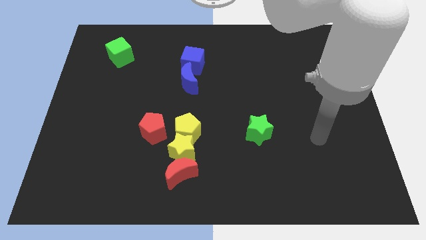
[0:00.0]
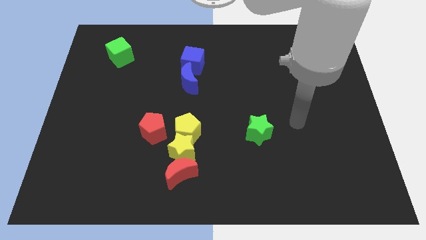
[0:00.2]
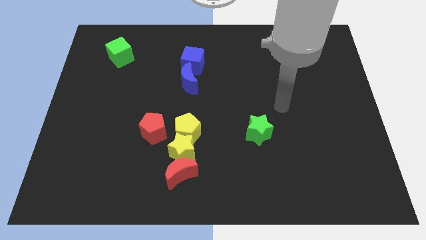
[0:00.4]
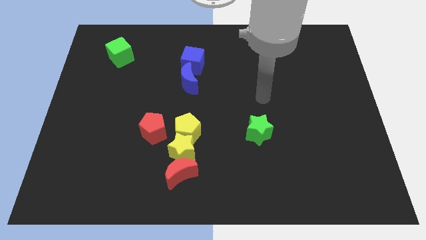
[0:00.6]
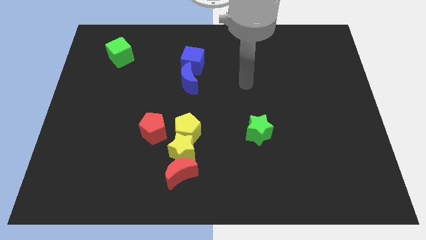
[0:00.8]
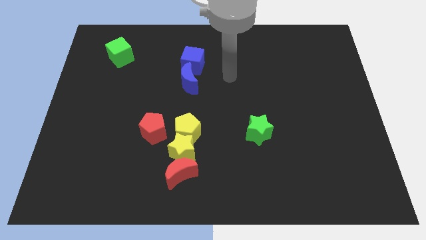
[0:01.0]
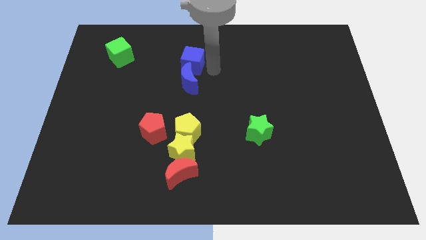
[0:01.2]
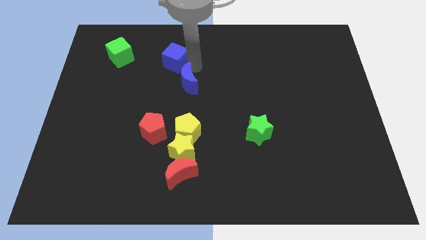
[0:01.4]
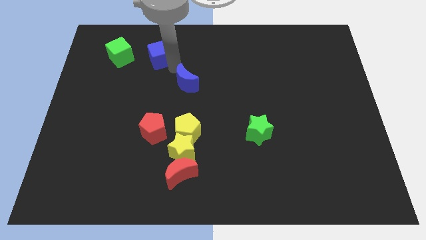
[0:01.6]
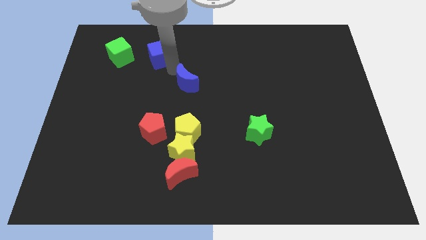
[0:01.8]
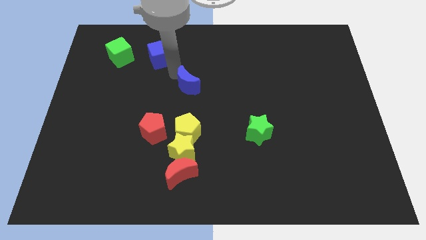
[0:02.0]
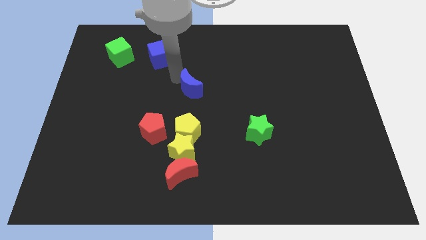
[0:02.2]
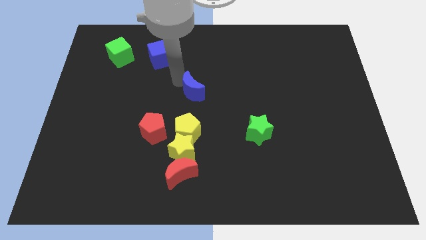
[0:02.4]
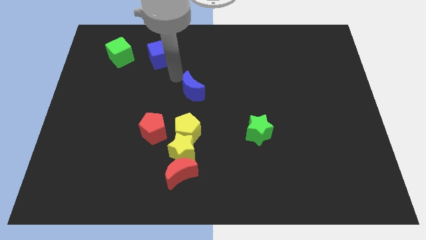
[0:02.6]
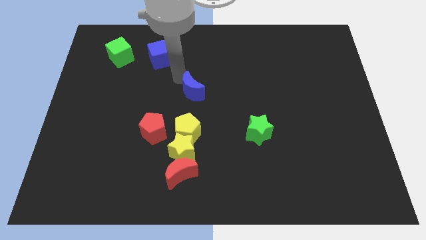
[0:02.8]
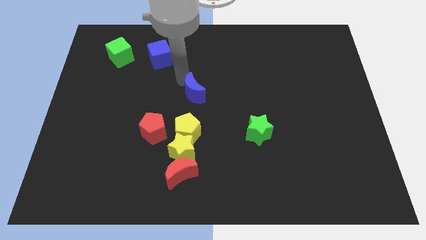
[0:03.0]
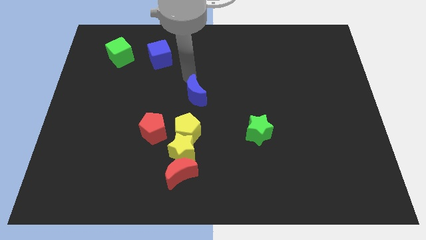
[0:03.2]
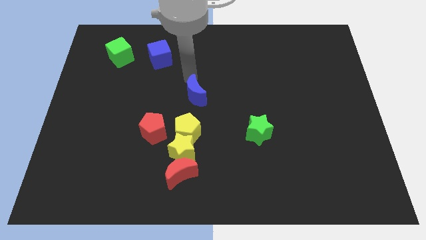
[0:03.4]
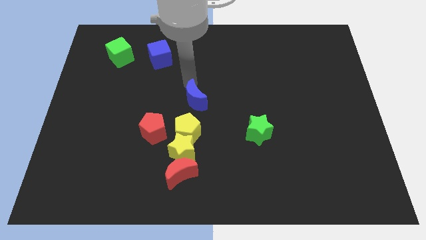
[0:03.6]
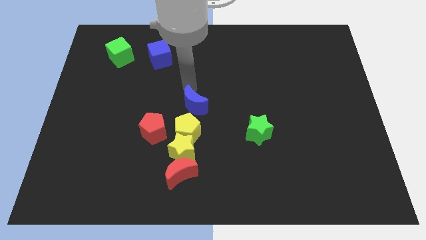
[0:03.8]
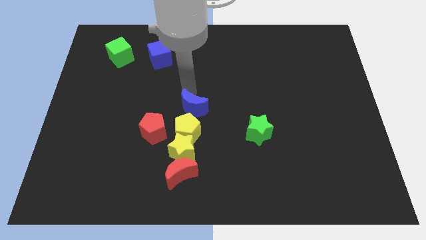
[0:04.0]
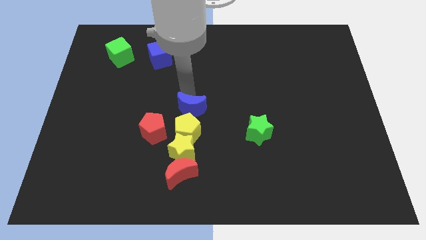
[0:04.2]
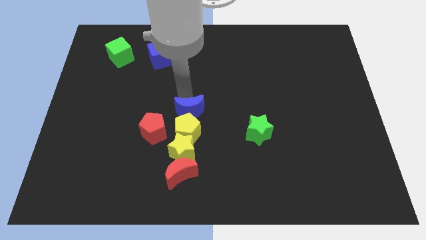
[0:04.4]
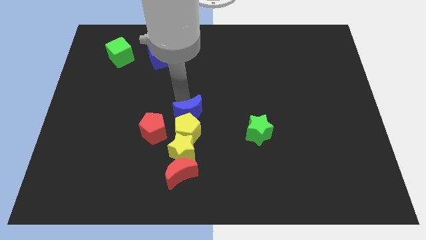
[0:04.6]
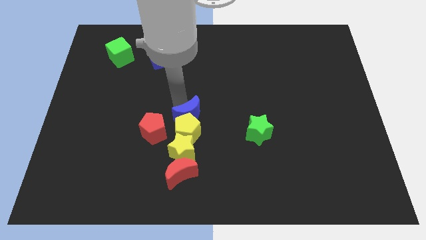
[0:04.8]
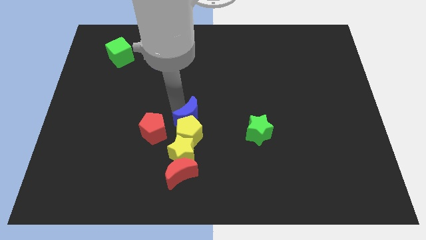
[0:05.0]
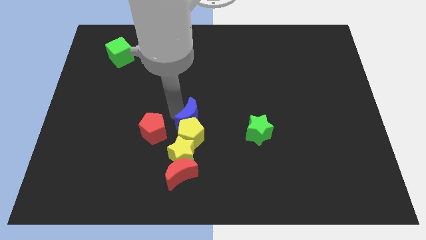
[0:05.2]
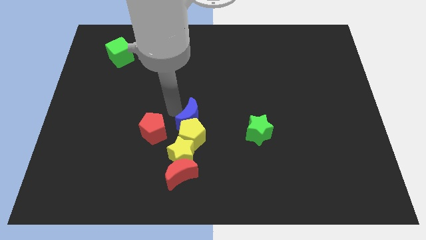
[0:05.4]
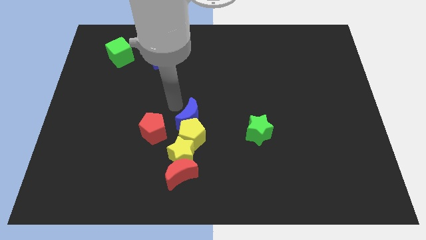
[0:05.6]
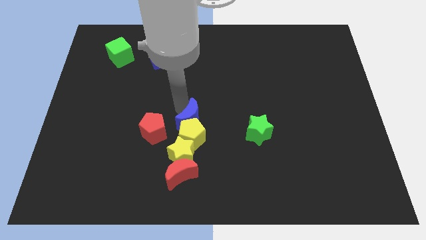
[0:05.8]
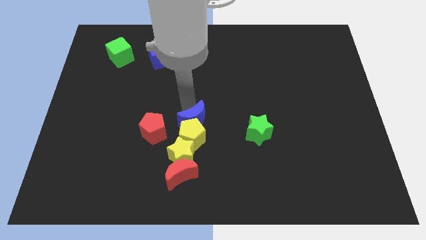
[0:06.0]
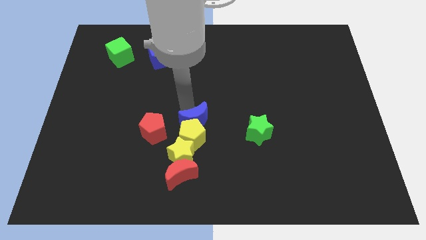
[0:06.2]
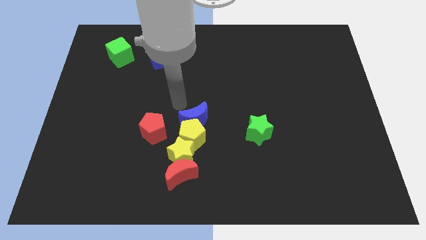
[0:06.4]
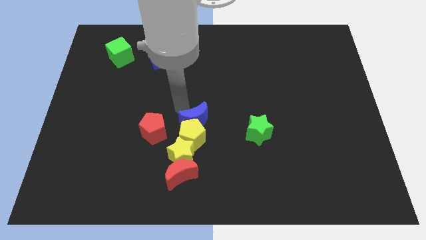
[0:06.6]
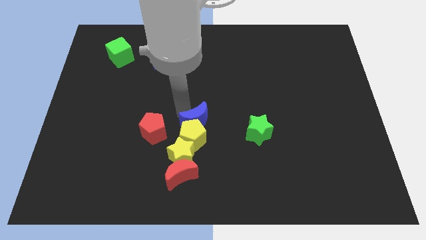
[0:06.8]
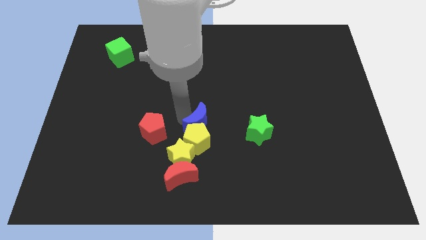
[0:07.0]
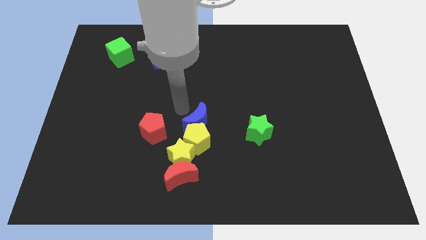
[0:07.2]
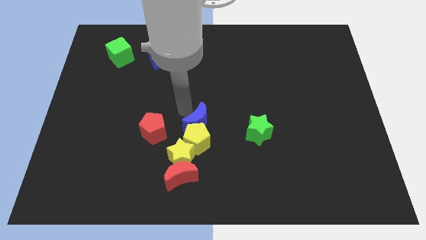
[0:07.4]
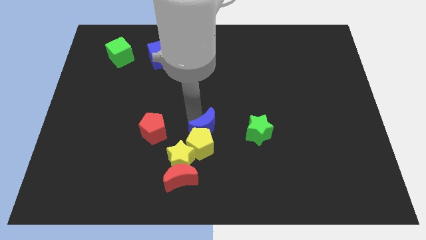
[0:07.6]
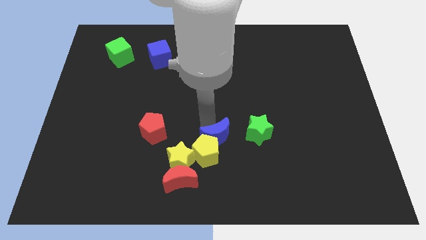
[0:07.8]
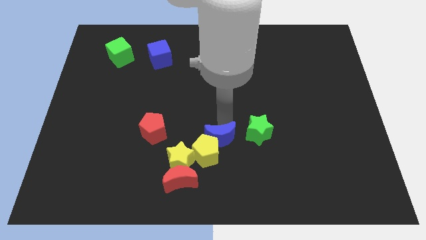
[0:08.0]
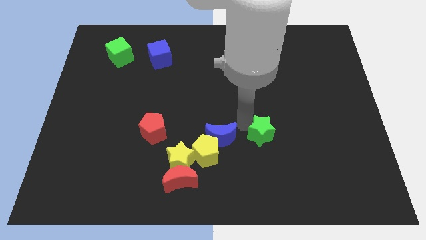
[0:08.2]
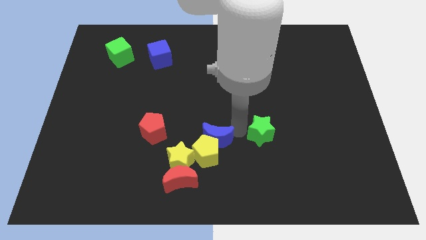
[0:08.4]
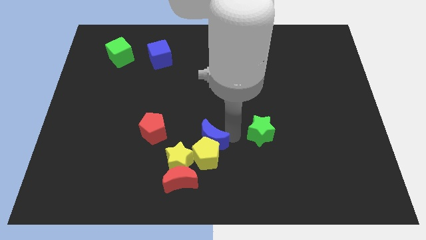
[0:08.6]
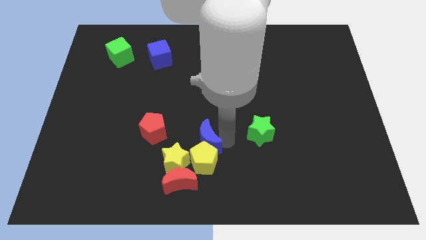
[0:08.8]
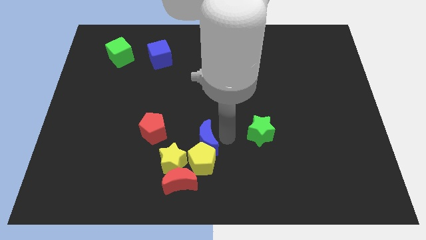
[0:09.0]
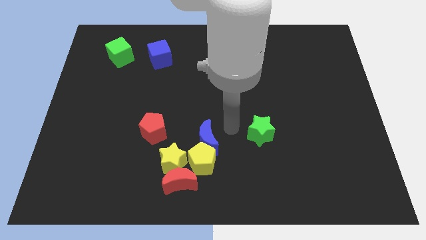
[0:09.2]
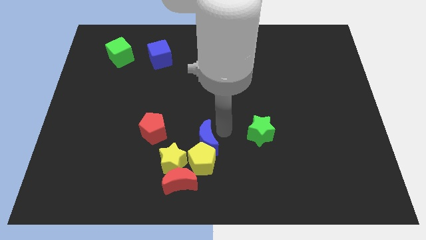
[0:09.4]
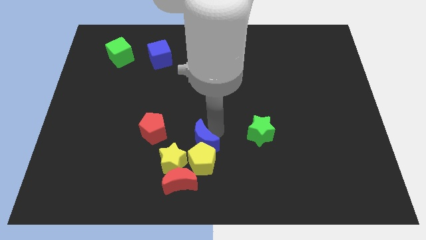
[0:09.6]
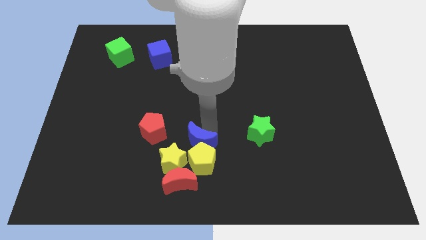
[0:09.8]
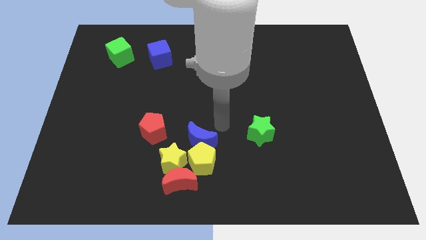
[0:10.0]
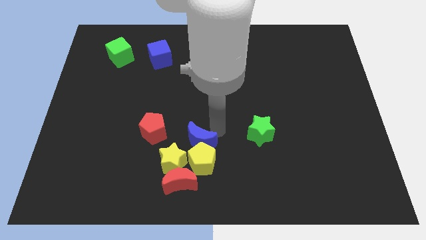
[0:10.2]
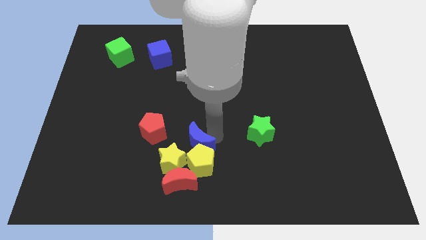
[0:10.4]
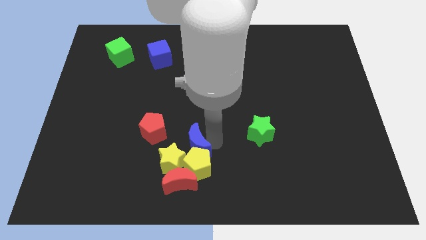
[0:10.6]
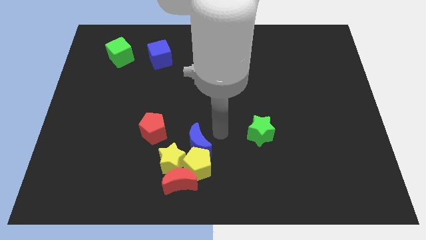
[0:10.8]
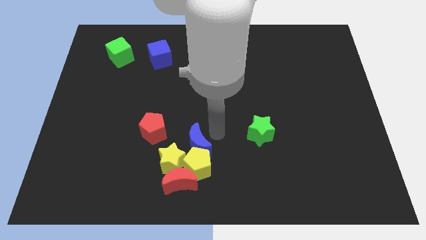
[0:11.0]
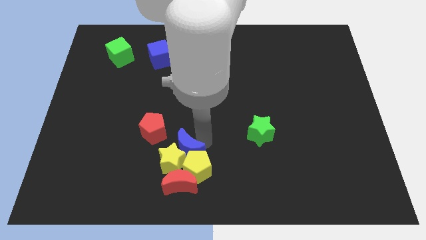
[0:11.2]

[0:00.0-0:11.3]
put the blue moon to the yellow star

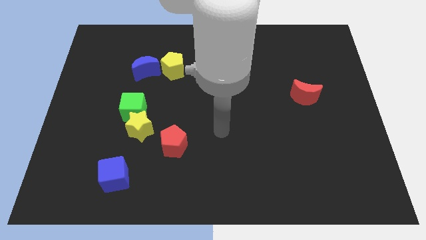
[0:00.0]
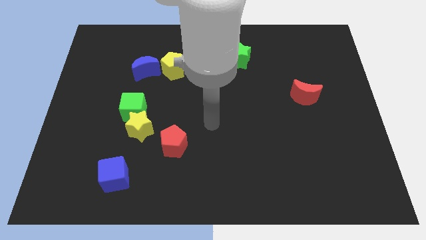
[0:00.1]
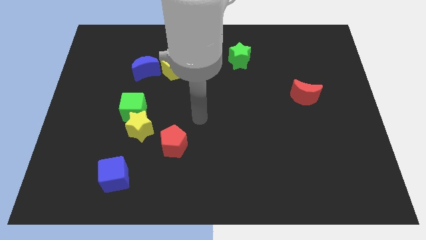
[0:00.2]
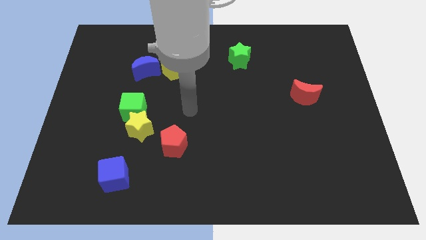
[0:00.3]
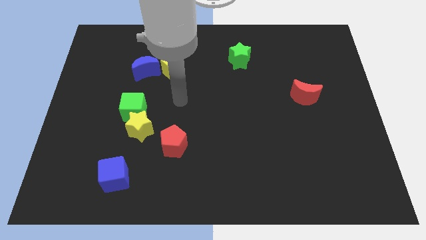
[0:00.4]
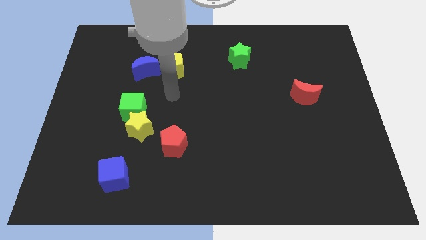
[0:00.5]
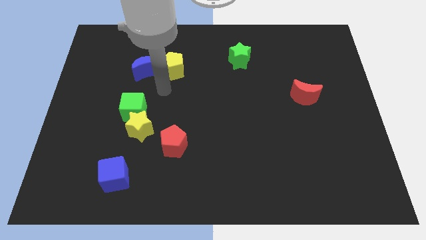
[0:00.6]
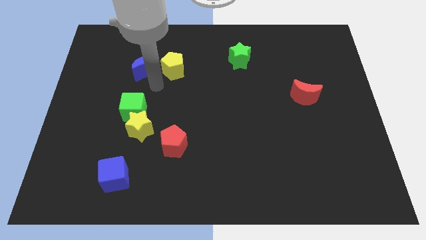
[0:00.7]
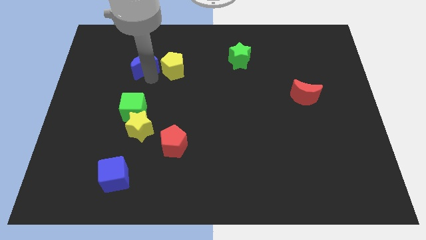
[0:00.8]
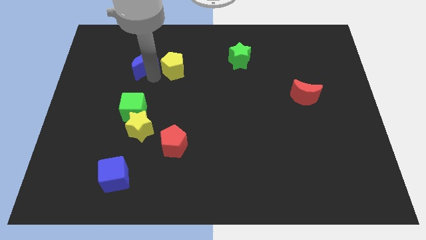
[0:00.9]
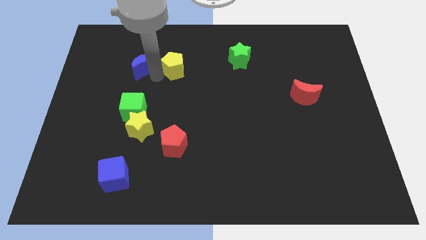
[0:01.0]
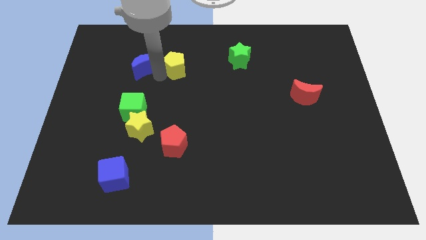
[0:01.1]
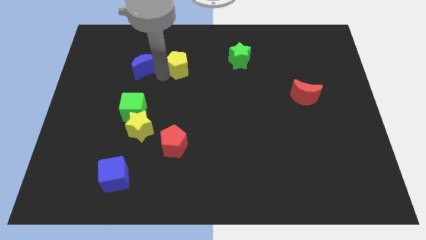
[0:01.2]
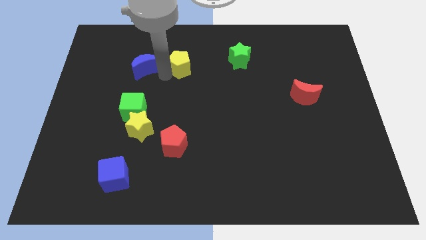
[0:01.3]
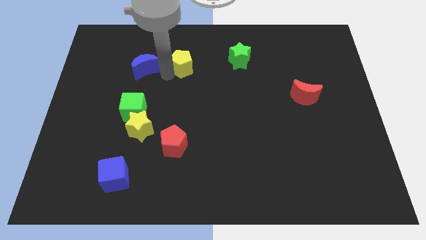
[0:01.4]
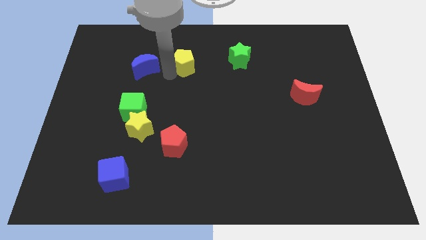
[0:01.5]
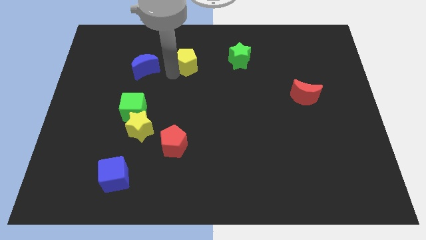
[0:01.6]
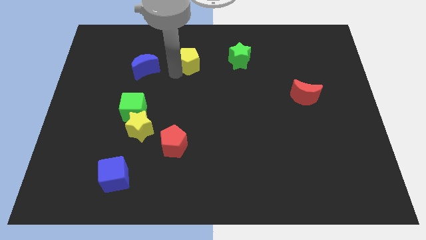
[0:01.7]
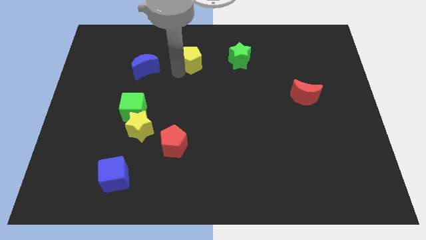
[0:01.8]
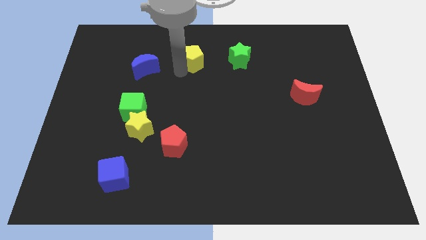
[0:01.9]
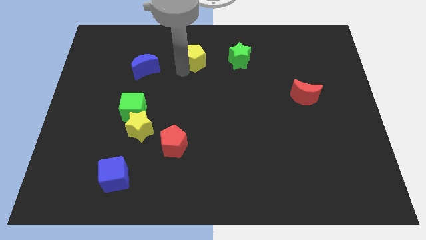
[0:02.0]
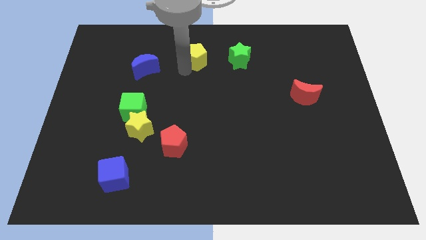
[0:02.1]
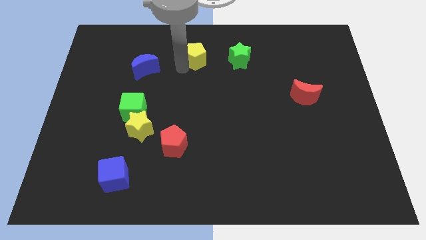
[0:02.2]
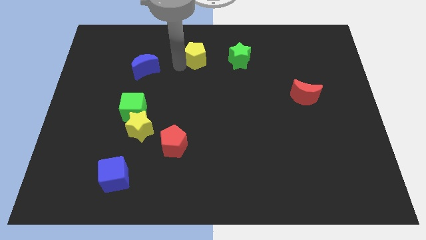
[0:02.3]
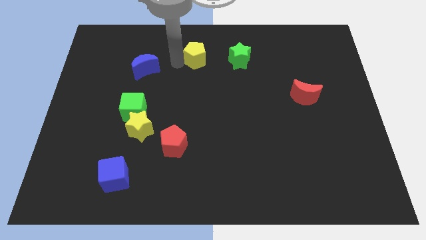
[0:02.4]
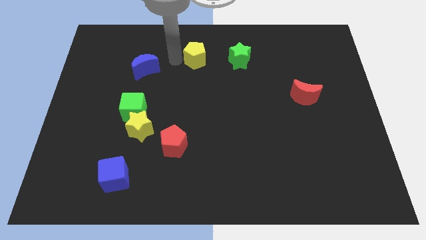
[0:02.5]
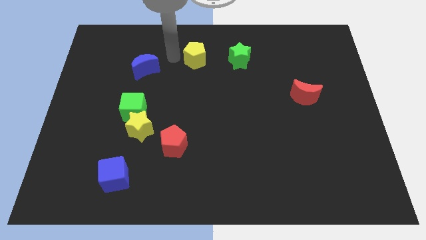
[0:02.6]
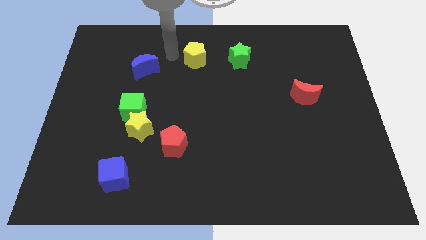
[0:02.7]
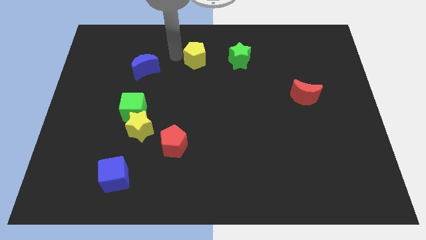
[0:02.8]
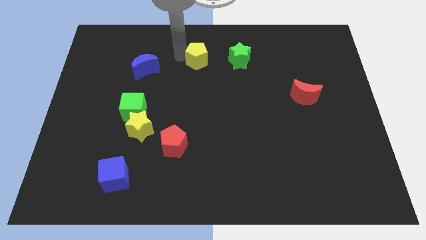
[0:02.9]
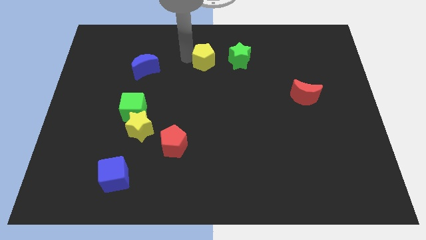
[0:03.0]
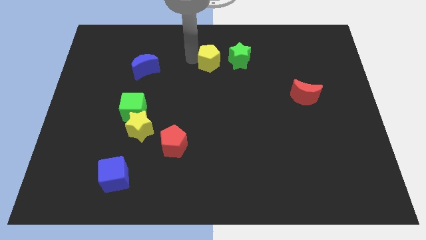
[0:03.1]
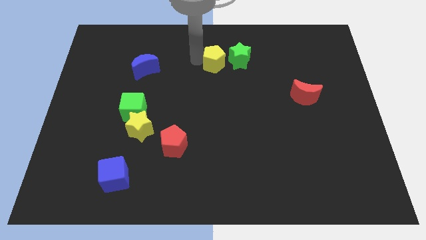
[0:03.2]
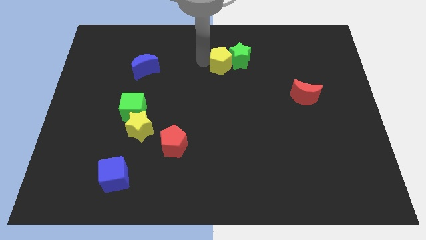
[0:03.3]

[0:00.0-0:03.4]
put the yellow pentagon next to the green star
